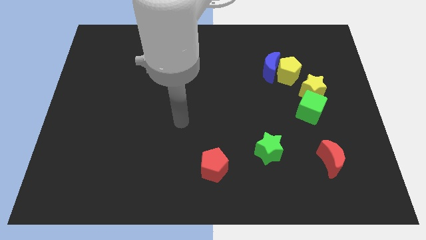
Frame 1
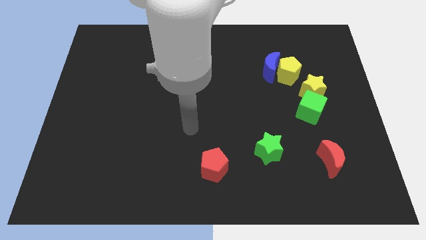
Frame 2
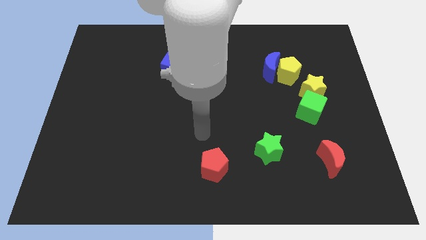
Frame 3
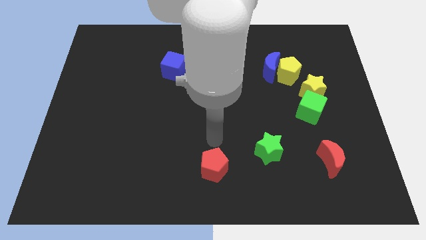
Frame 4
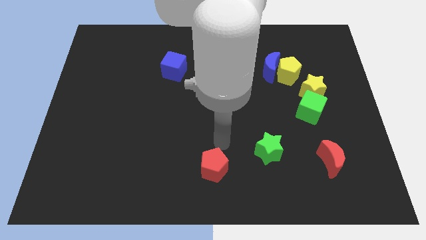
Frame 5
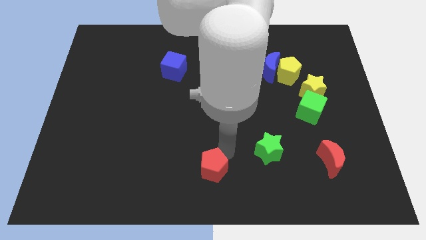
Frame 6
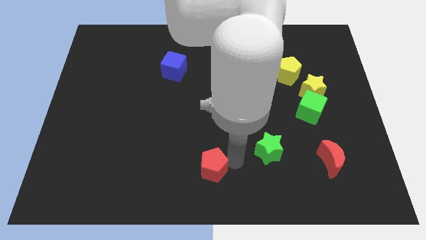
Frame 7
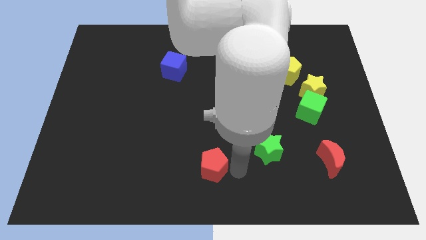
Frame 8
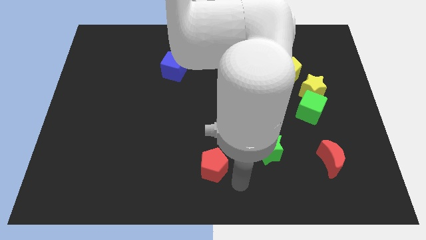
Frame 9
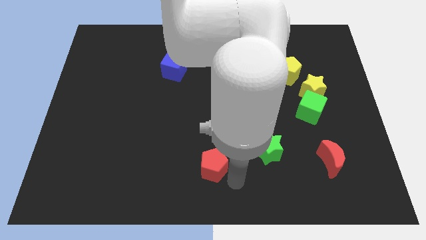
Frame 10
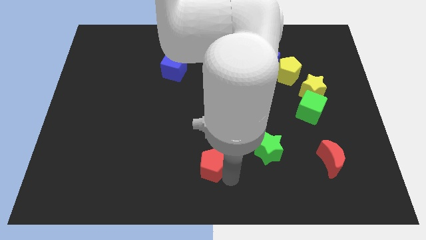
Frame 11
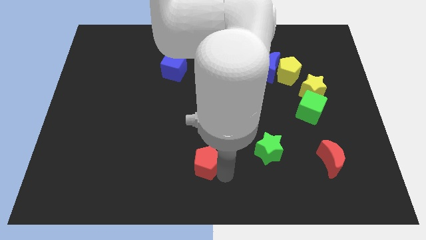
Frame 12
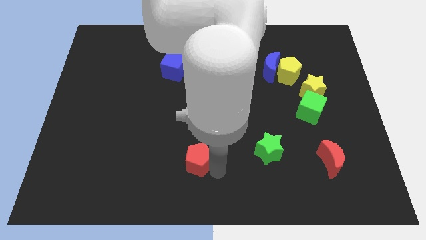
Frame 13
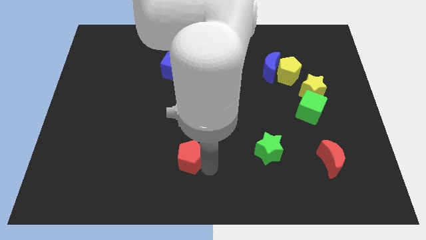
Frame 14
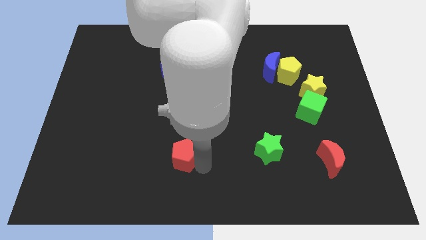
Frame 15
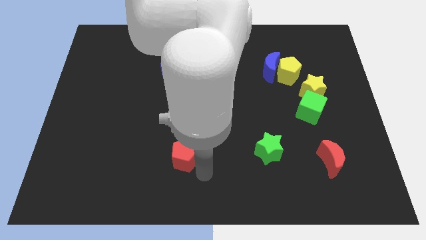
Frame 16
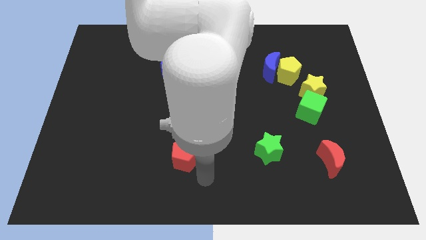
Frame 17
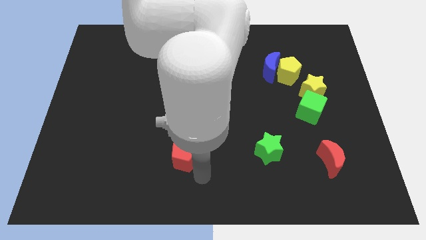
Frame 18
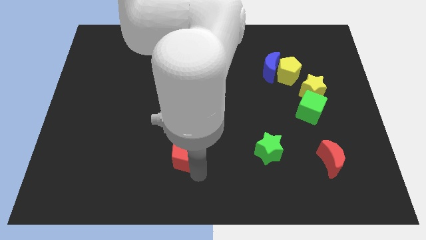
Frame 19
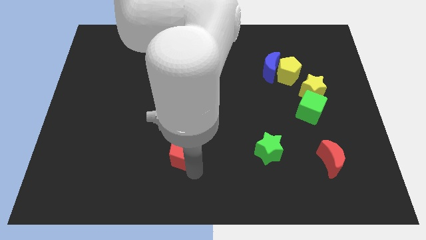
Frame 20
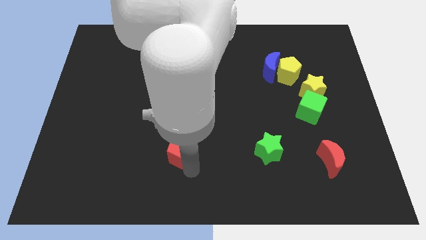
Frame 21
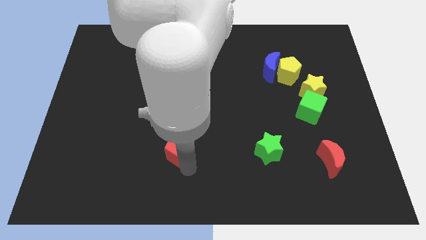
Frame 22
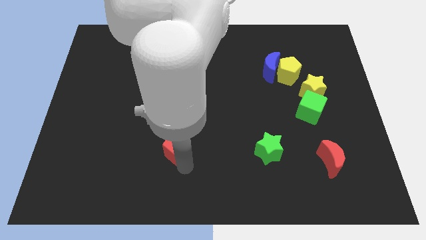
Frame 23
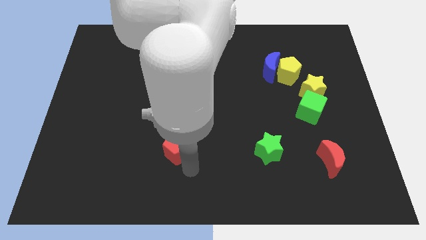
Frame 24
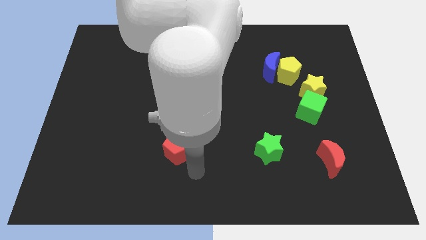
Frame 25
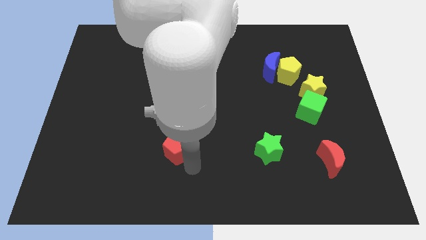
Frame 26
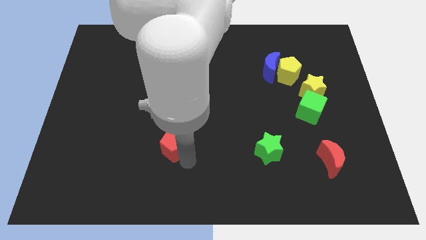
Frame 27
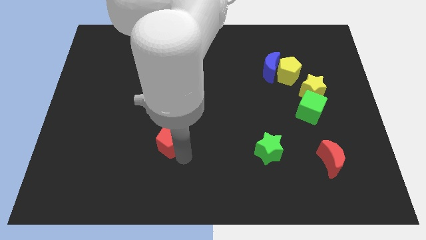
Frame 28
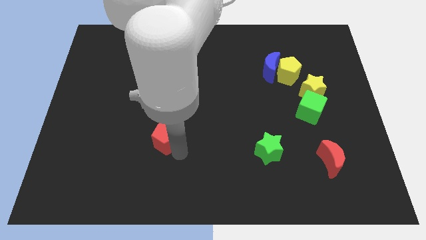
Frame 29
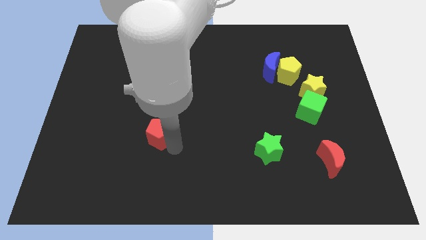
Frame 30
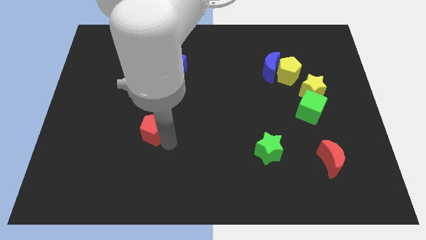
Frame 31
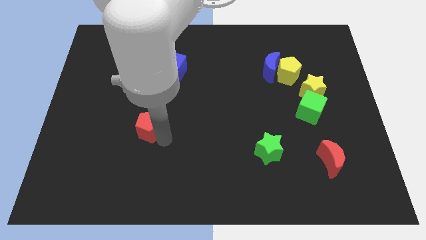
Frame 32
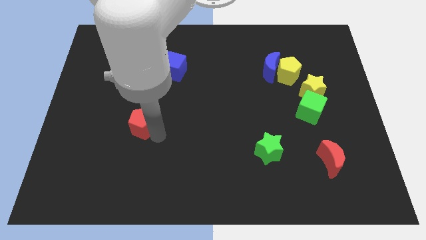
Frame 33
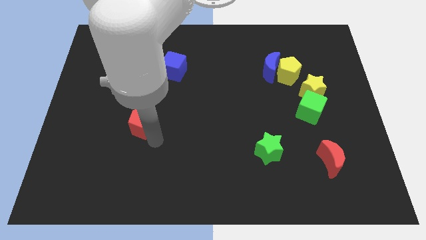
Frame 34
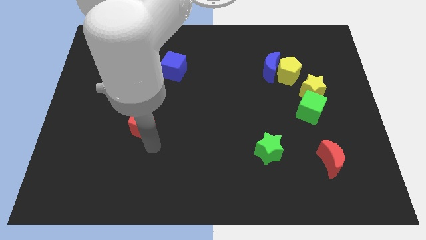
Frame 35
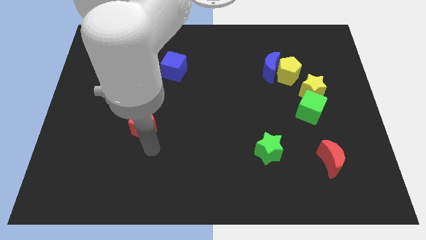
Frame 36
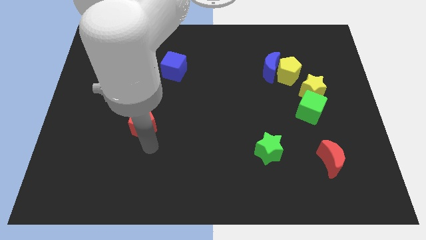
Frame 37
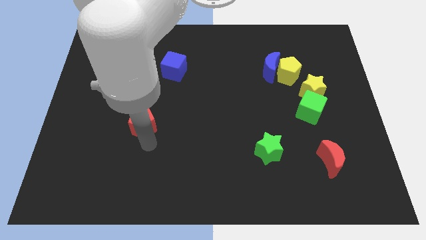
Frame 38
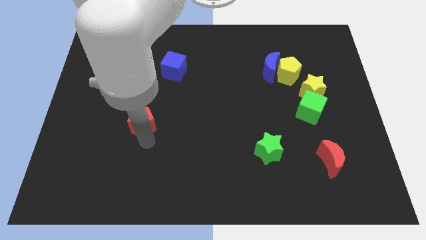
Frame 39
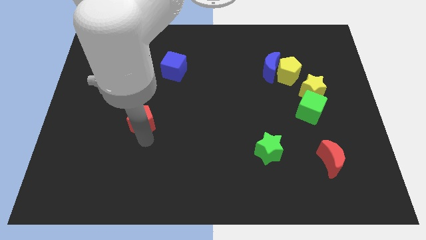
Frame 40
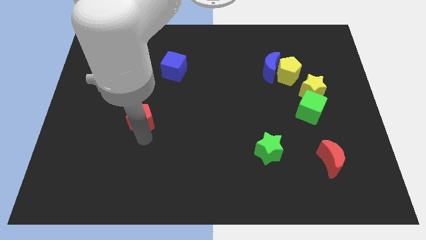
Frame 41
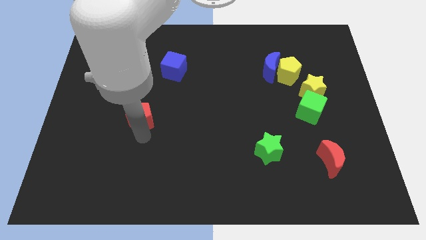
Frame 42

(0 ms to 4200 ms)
slide the red pentagon upwards and then left

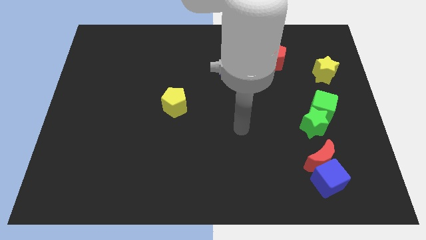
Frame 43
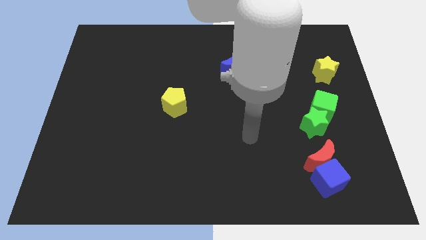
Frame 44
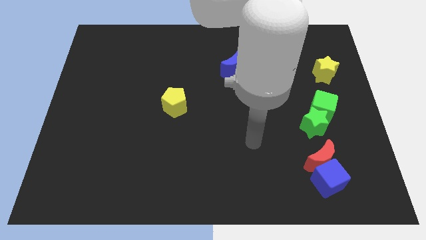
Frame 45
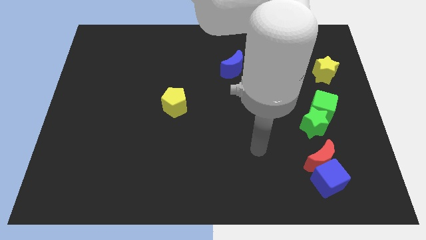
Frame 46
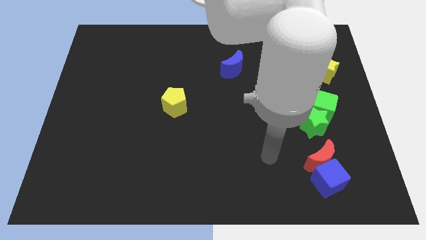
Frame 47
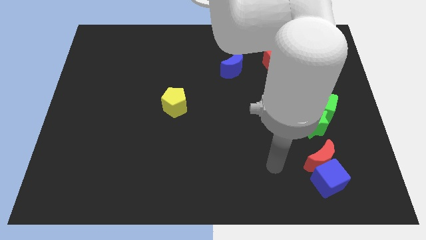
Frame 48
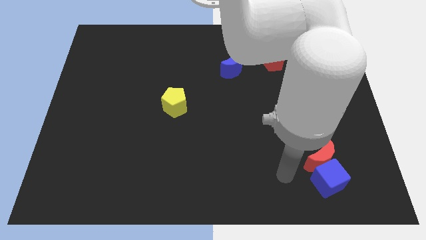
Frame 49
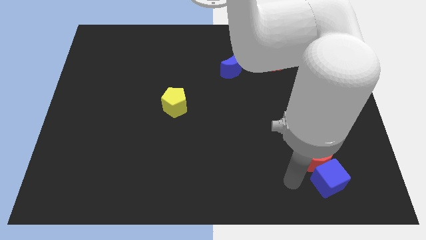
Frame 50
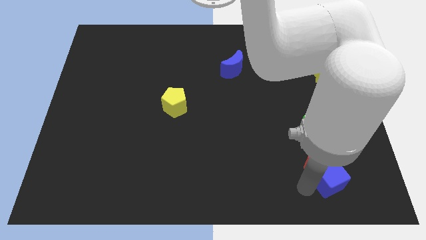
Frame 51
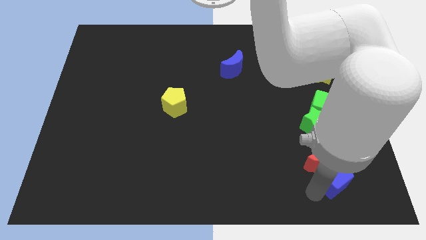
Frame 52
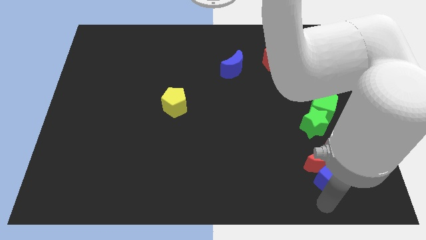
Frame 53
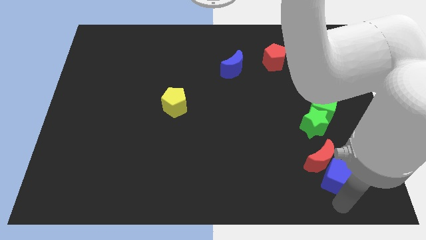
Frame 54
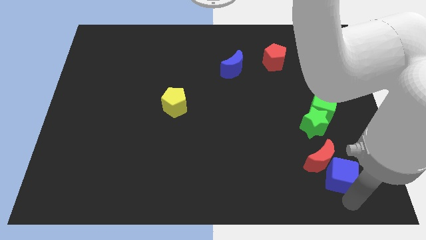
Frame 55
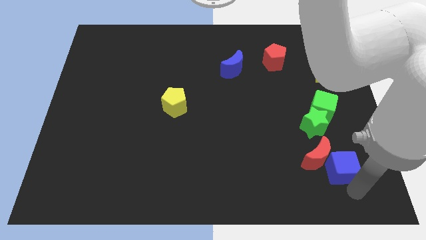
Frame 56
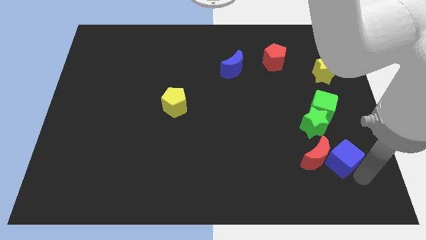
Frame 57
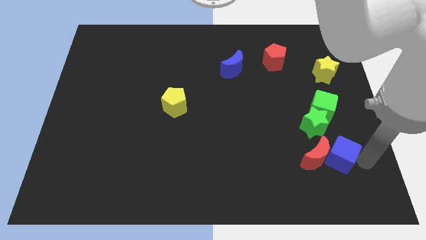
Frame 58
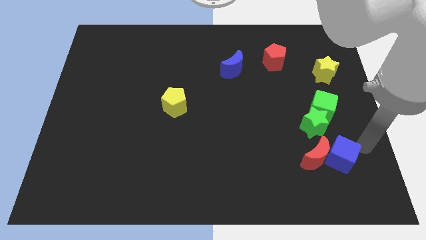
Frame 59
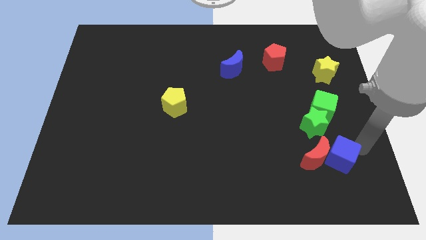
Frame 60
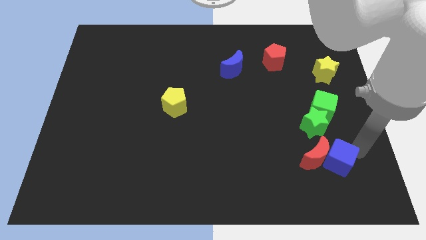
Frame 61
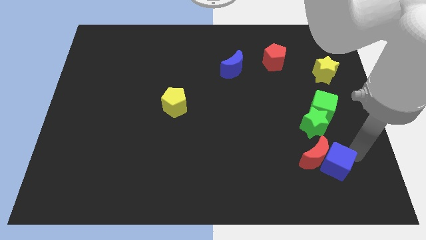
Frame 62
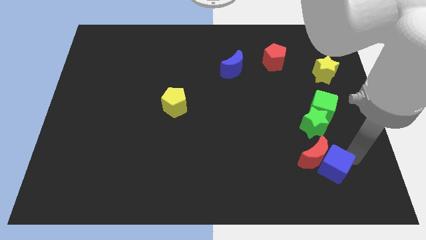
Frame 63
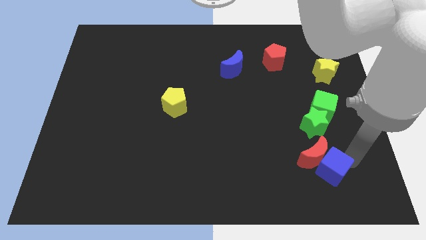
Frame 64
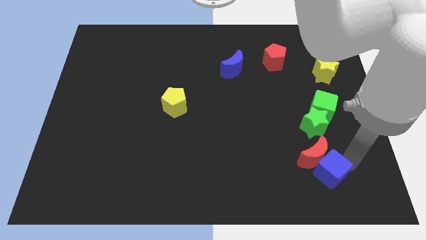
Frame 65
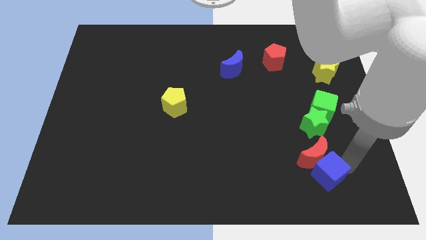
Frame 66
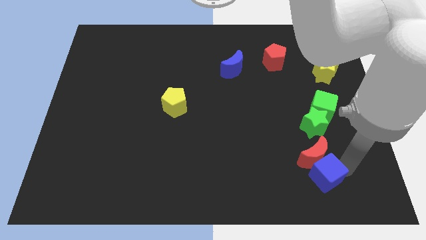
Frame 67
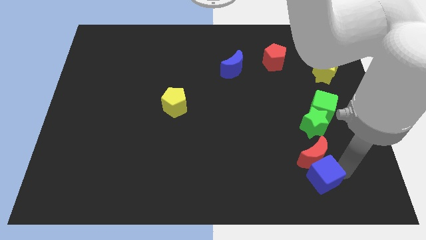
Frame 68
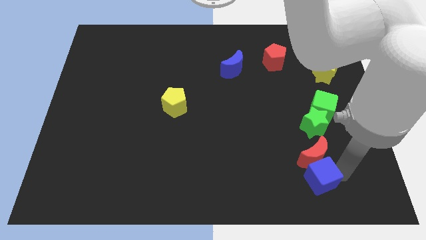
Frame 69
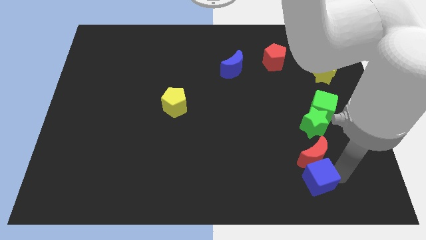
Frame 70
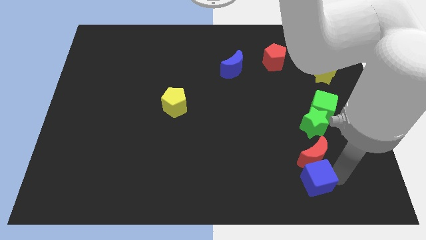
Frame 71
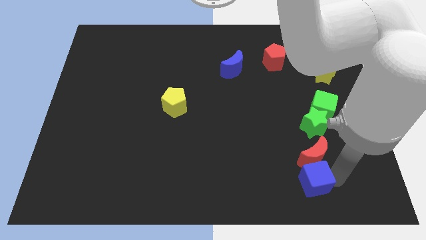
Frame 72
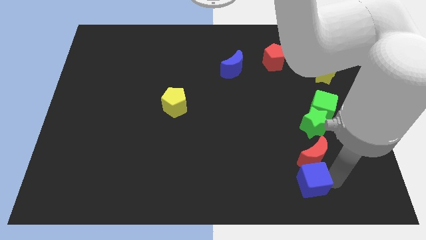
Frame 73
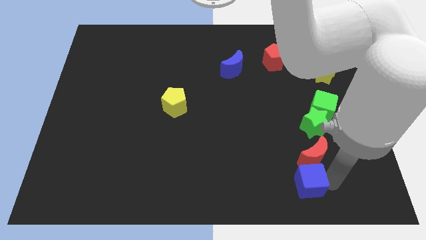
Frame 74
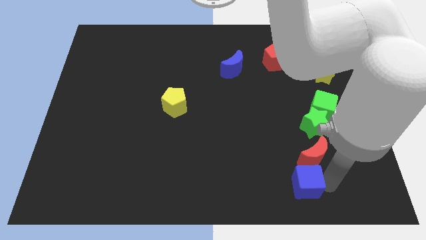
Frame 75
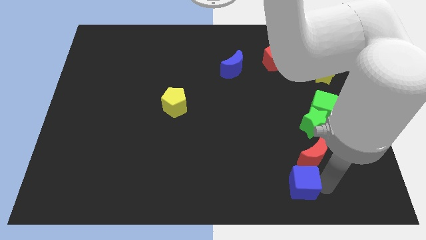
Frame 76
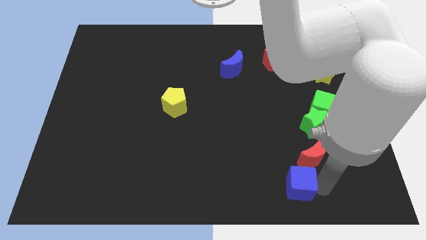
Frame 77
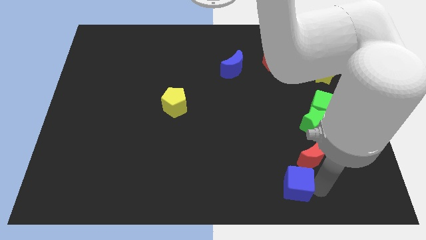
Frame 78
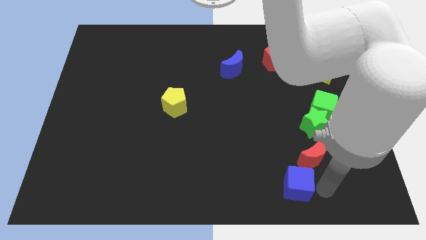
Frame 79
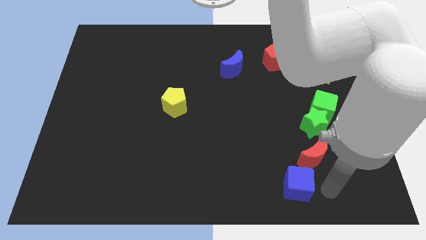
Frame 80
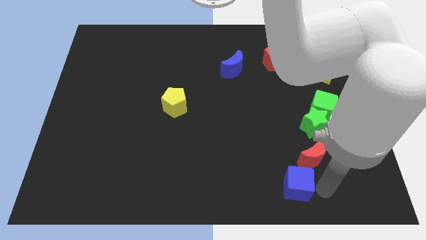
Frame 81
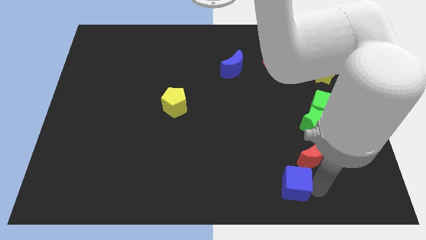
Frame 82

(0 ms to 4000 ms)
slide the blue cube somewhat to the left

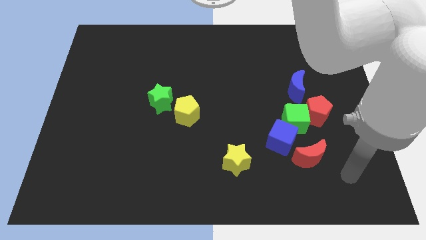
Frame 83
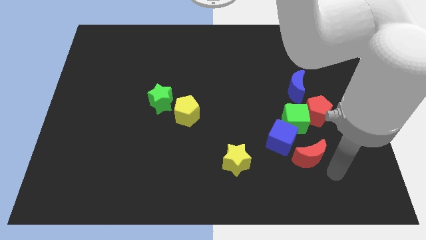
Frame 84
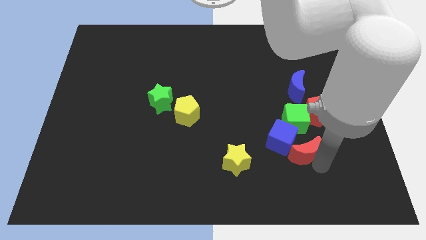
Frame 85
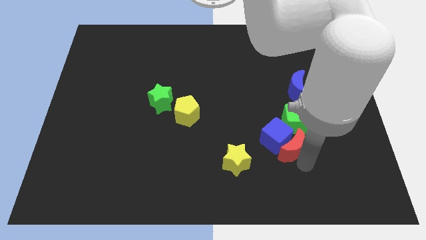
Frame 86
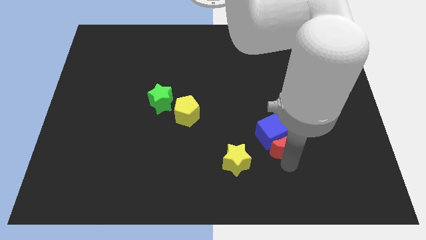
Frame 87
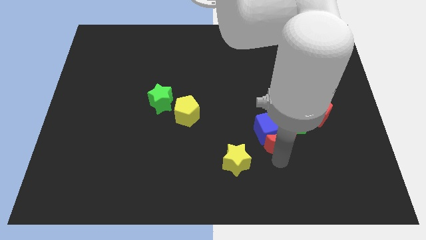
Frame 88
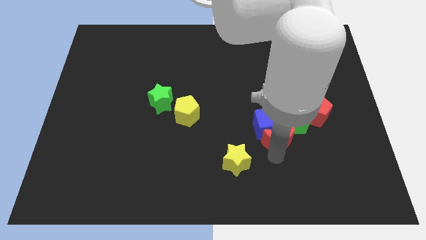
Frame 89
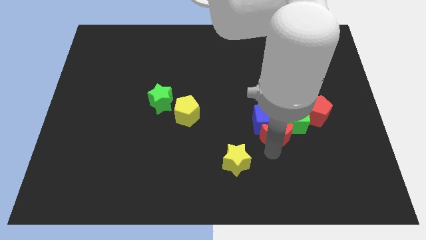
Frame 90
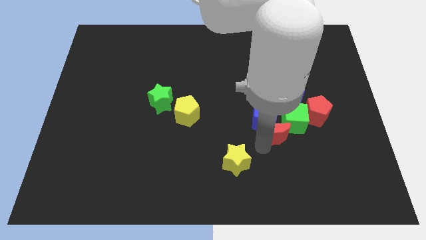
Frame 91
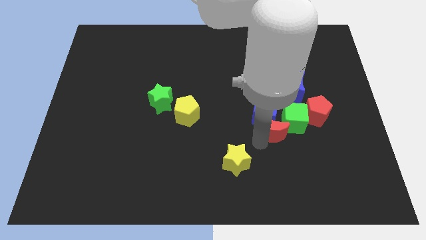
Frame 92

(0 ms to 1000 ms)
move the blue cube up a little bit
